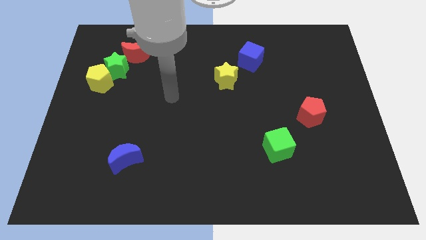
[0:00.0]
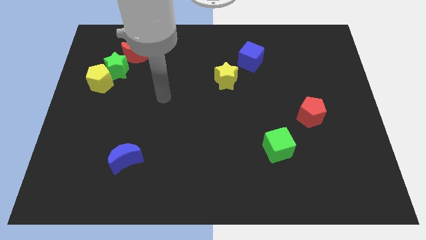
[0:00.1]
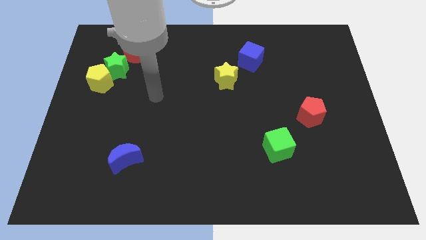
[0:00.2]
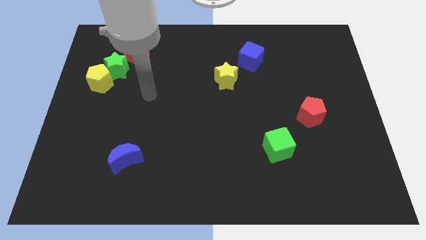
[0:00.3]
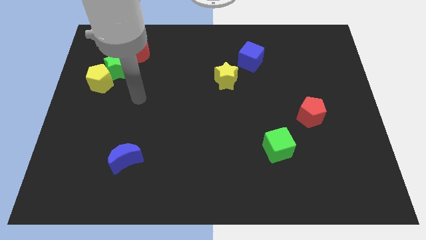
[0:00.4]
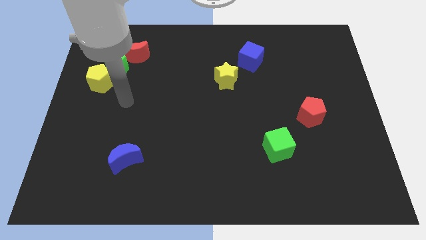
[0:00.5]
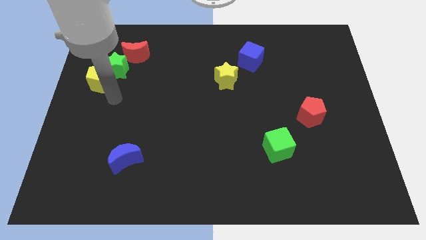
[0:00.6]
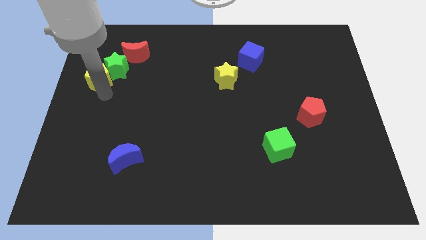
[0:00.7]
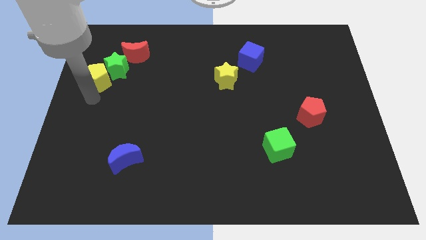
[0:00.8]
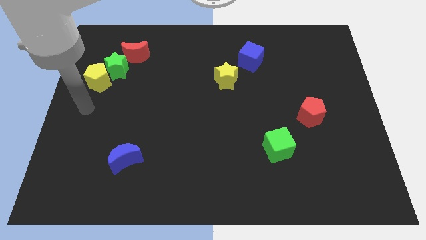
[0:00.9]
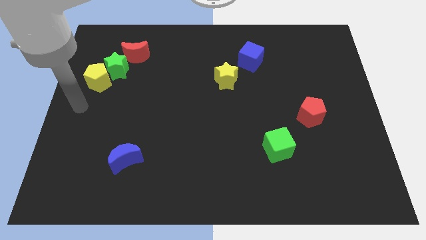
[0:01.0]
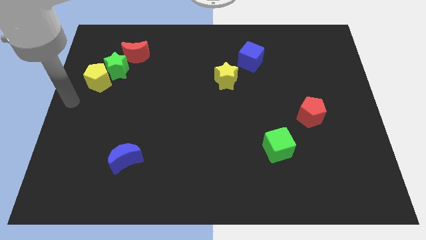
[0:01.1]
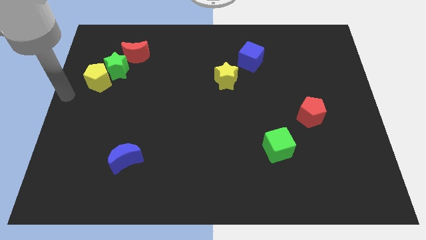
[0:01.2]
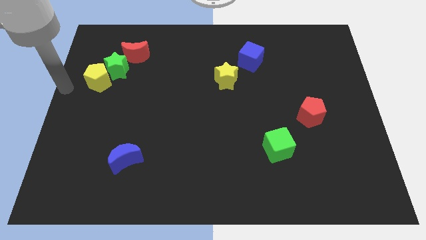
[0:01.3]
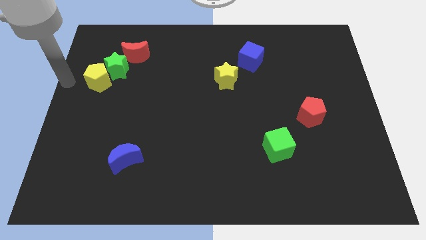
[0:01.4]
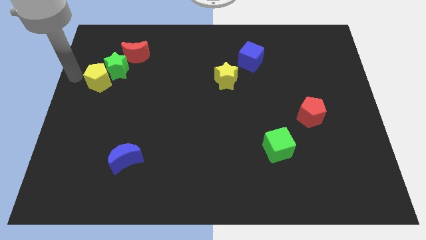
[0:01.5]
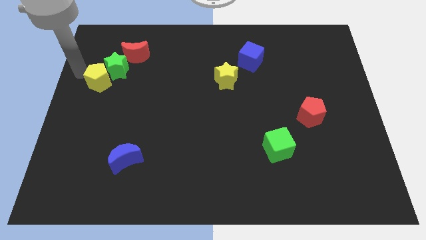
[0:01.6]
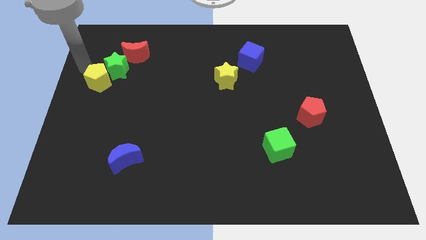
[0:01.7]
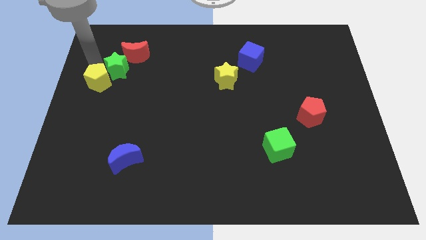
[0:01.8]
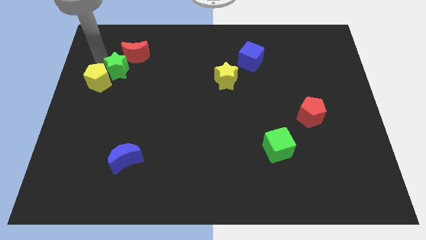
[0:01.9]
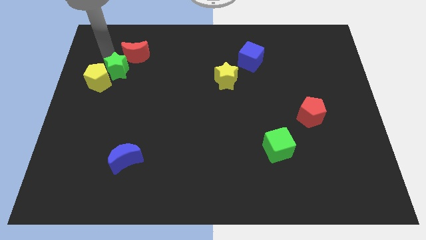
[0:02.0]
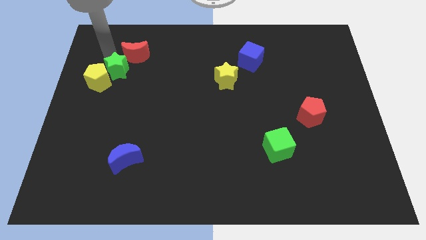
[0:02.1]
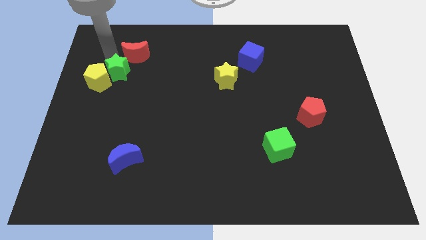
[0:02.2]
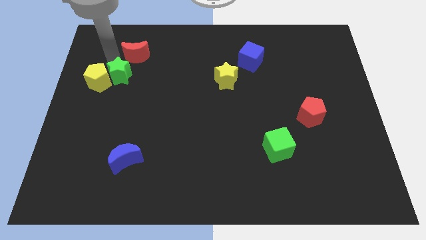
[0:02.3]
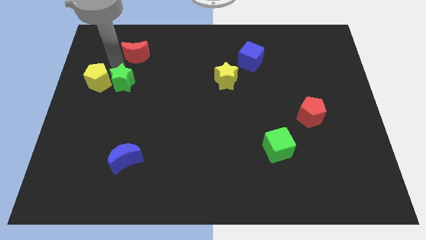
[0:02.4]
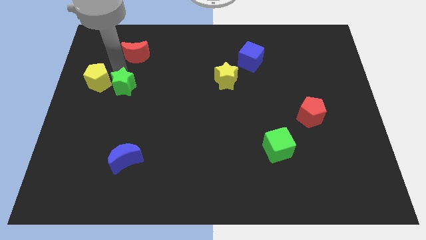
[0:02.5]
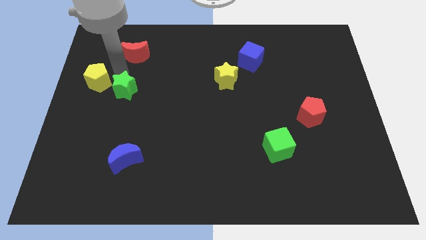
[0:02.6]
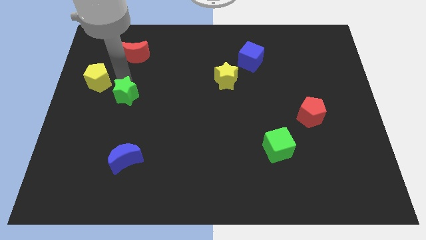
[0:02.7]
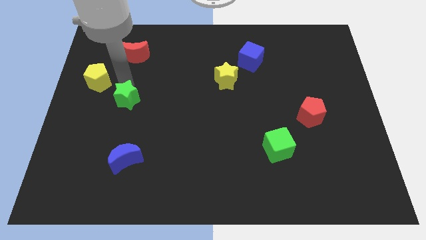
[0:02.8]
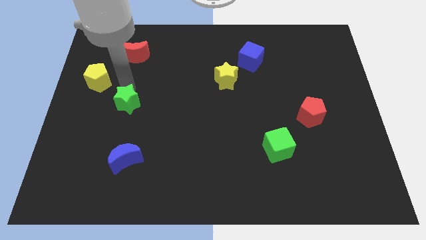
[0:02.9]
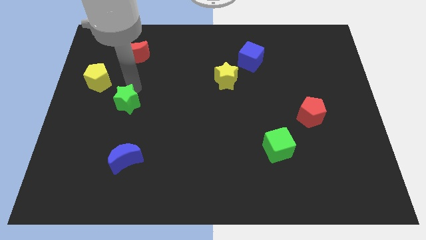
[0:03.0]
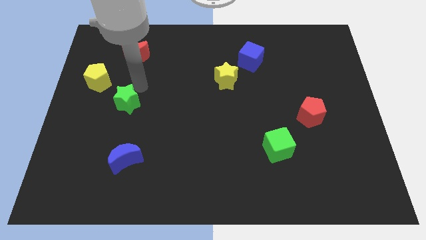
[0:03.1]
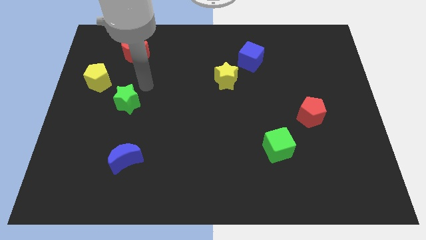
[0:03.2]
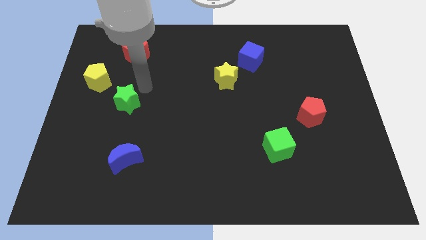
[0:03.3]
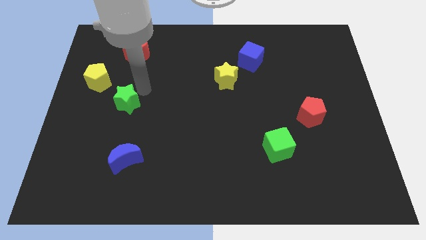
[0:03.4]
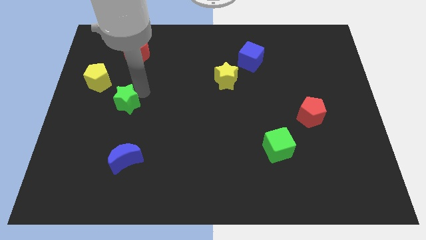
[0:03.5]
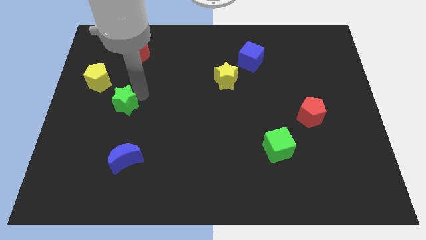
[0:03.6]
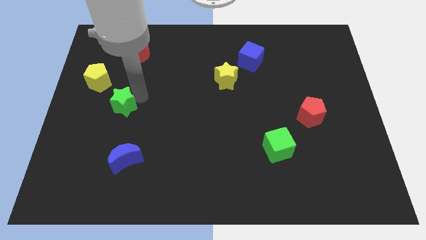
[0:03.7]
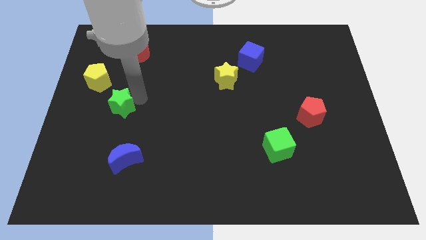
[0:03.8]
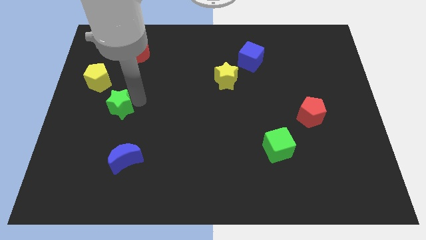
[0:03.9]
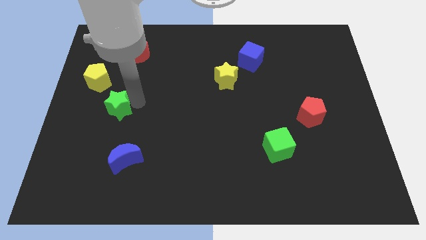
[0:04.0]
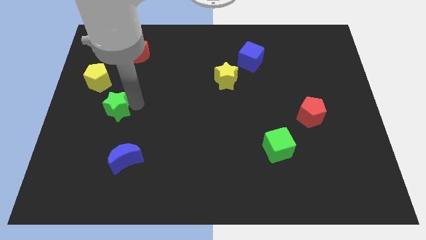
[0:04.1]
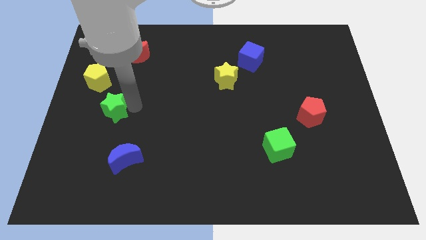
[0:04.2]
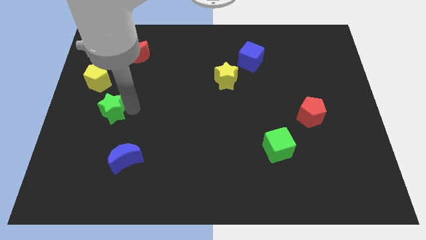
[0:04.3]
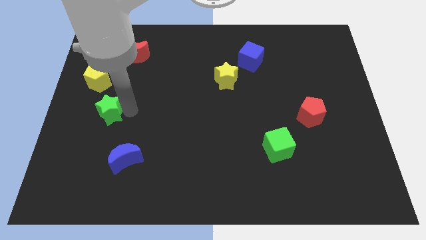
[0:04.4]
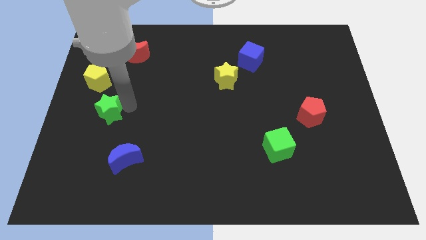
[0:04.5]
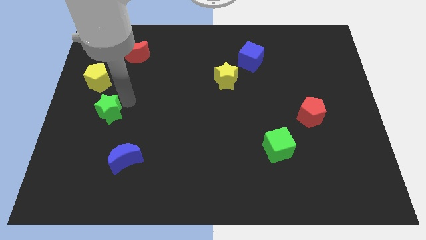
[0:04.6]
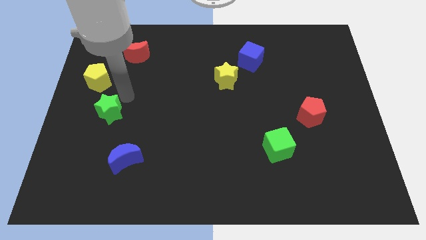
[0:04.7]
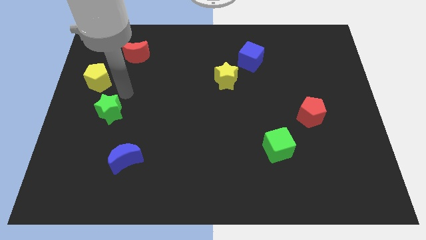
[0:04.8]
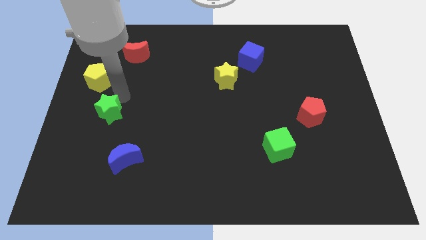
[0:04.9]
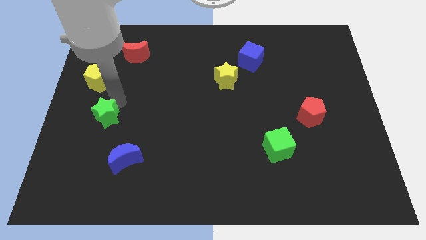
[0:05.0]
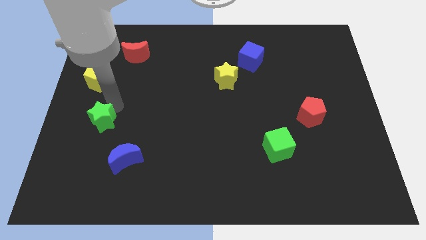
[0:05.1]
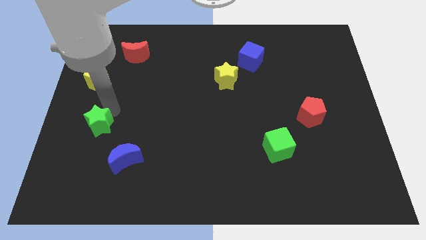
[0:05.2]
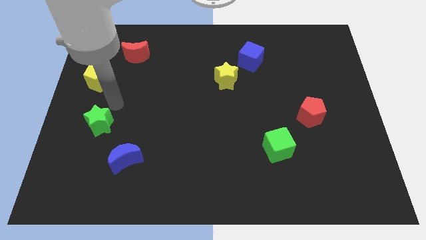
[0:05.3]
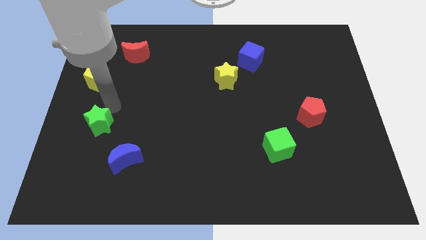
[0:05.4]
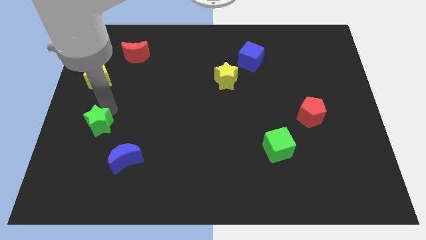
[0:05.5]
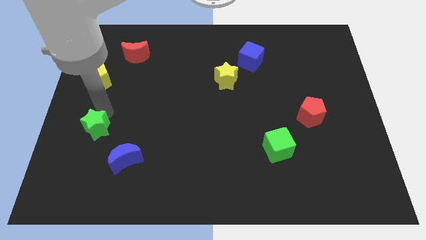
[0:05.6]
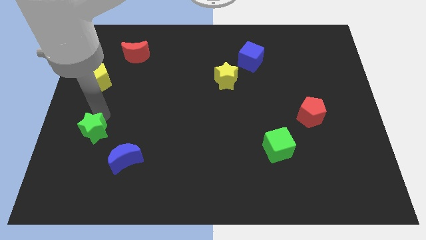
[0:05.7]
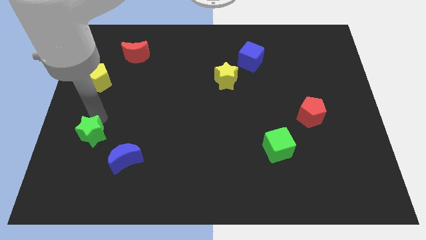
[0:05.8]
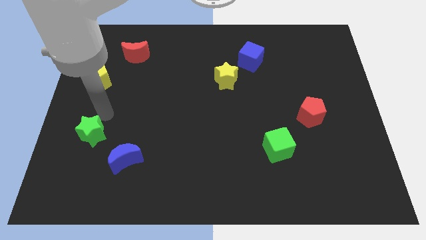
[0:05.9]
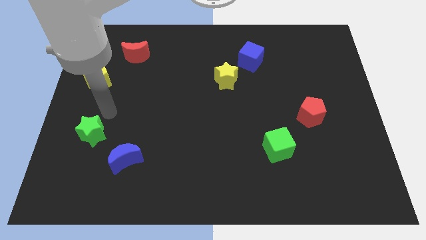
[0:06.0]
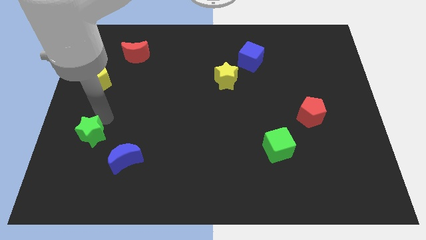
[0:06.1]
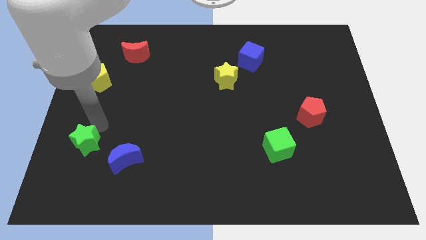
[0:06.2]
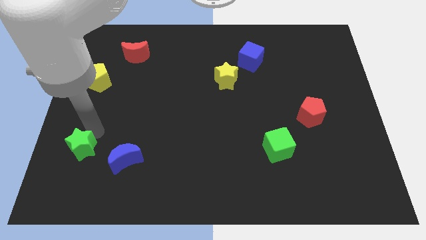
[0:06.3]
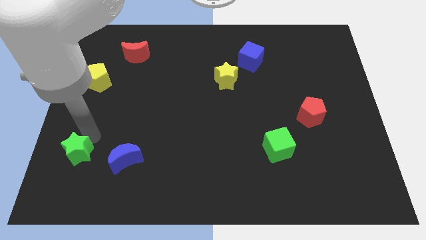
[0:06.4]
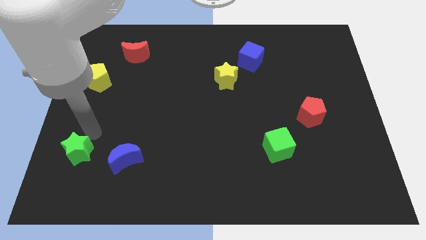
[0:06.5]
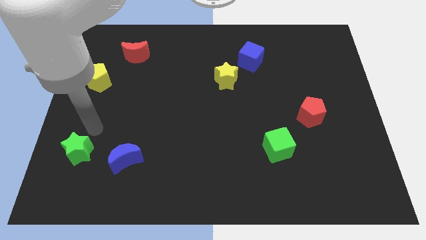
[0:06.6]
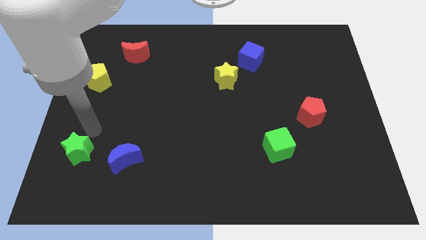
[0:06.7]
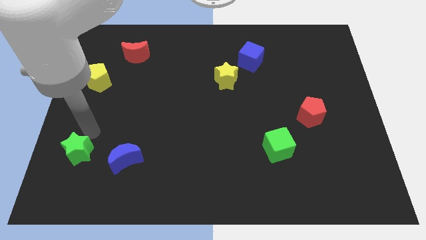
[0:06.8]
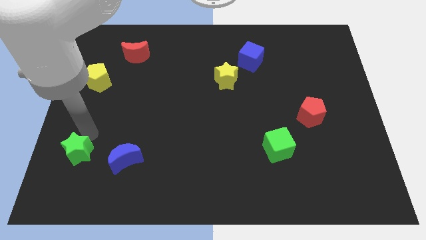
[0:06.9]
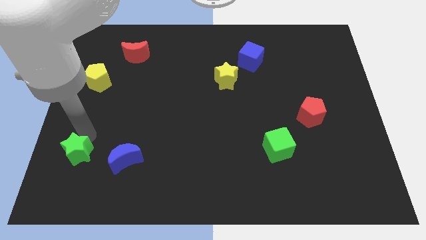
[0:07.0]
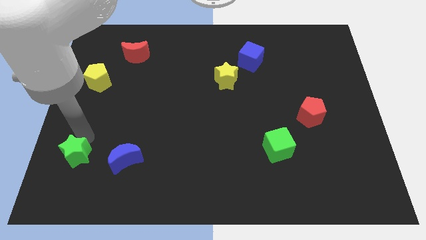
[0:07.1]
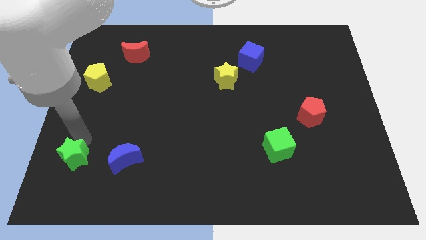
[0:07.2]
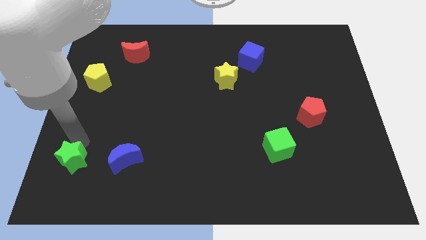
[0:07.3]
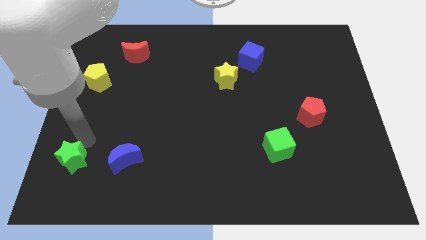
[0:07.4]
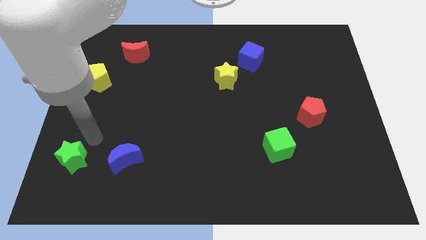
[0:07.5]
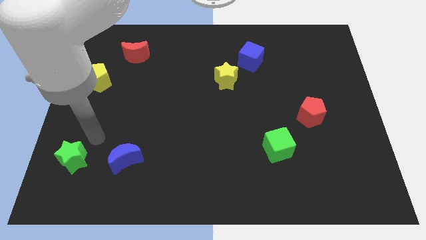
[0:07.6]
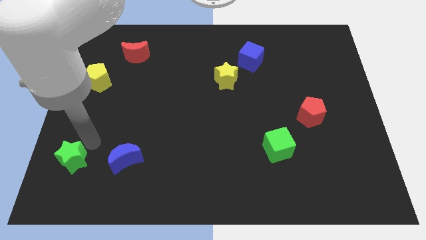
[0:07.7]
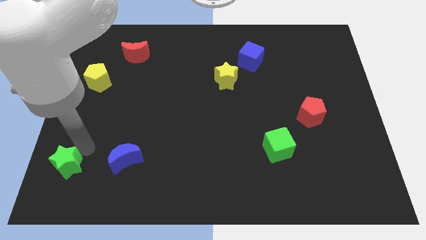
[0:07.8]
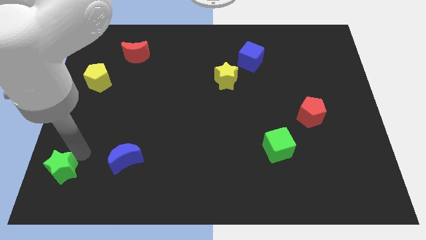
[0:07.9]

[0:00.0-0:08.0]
put the green star to the bottom left
